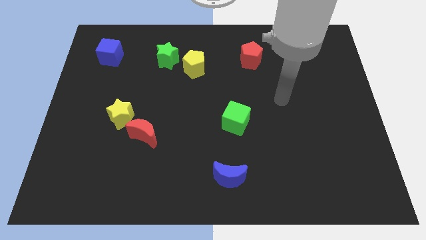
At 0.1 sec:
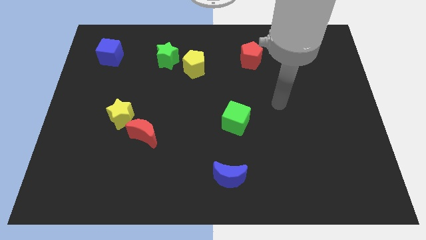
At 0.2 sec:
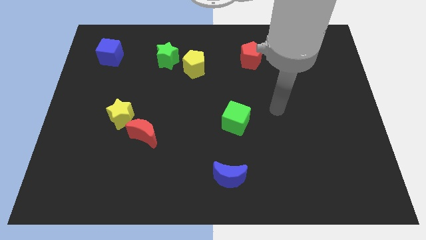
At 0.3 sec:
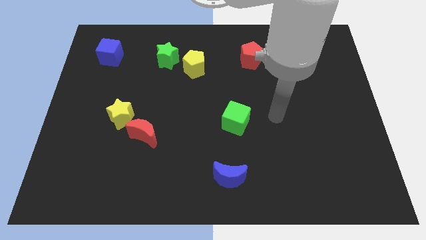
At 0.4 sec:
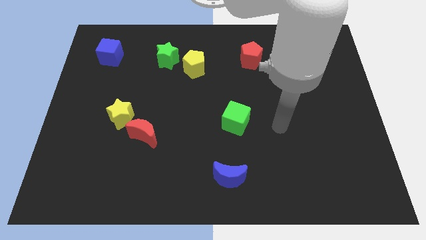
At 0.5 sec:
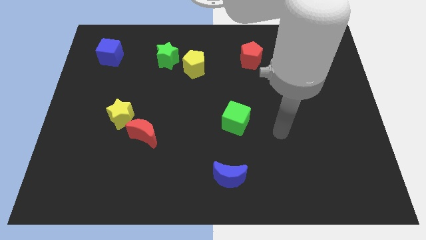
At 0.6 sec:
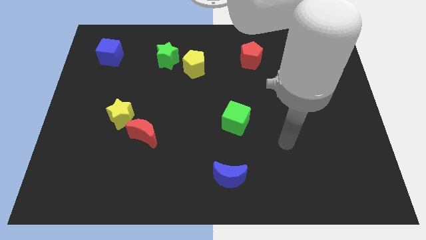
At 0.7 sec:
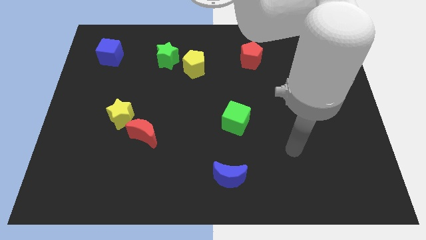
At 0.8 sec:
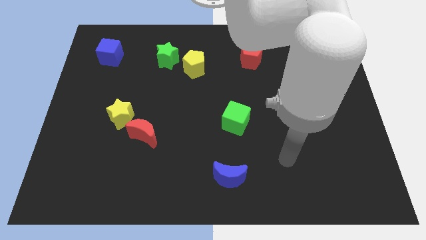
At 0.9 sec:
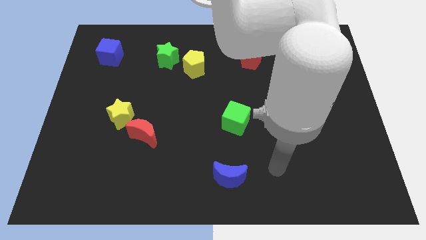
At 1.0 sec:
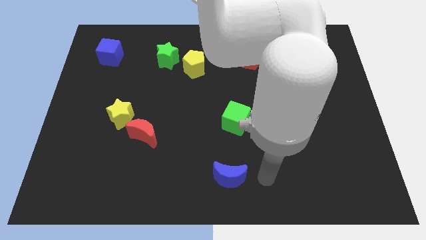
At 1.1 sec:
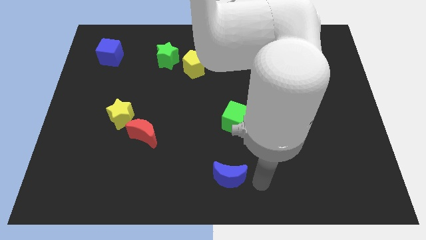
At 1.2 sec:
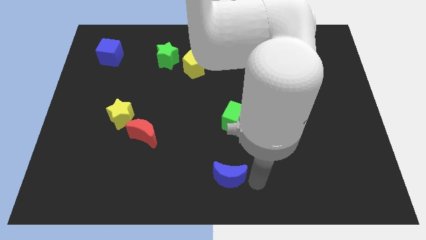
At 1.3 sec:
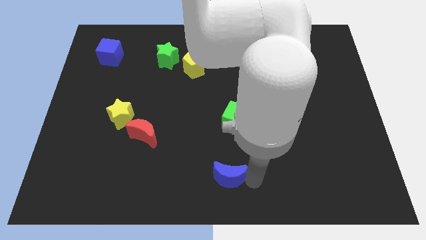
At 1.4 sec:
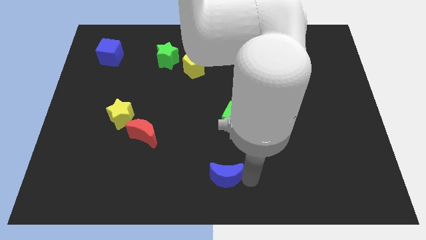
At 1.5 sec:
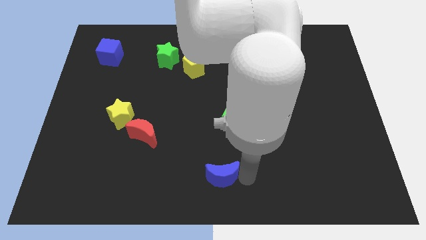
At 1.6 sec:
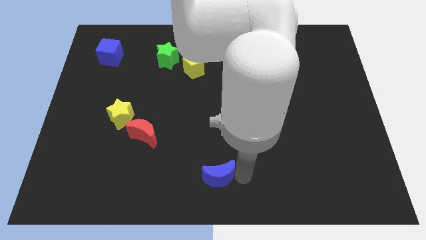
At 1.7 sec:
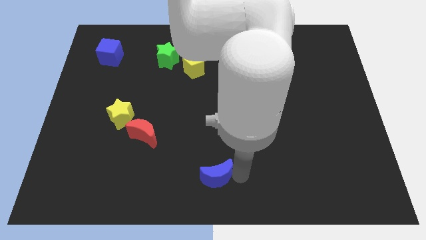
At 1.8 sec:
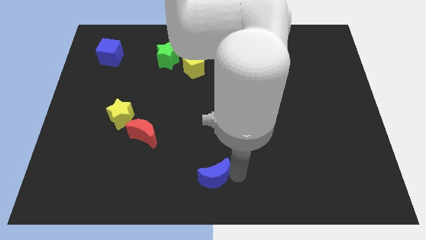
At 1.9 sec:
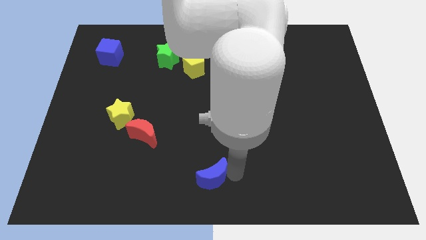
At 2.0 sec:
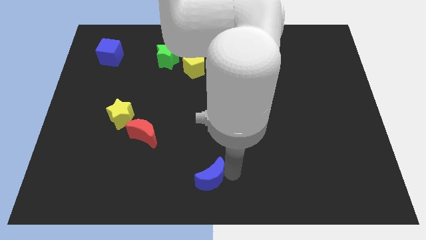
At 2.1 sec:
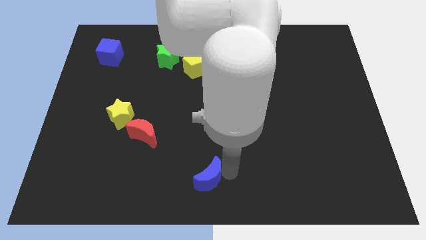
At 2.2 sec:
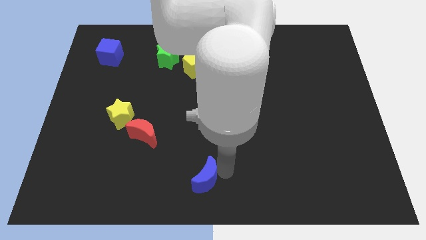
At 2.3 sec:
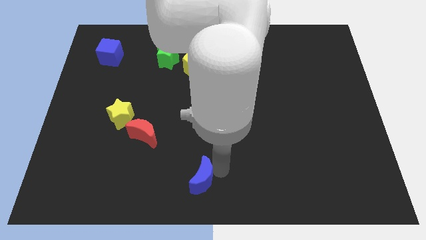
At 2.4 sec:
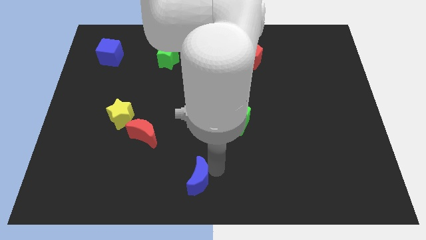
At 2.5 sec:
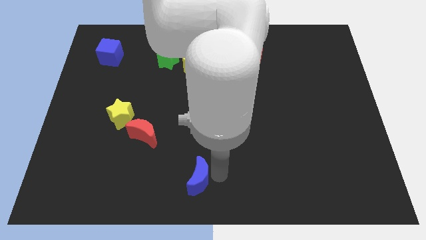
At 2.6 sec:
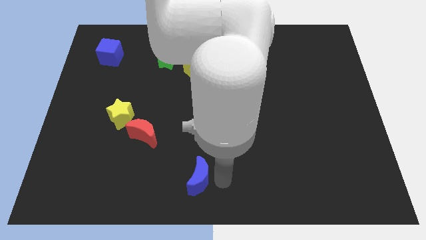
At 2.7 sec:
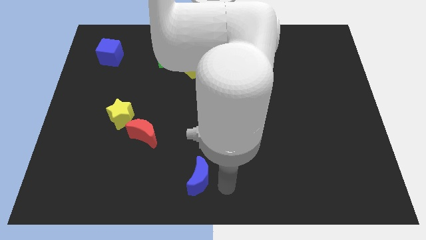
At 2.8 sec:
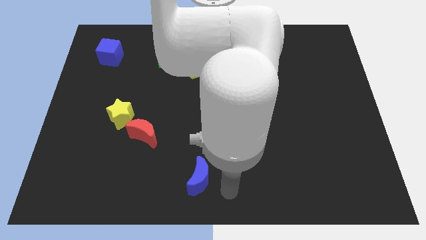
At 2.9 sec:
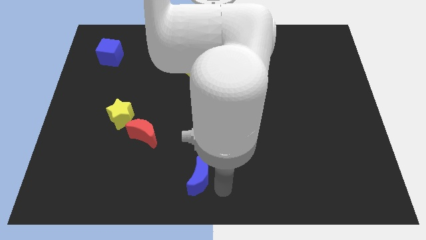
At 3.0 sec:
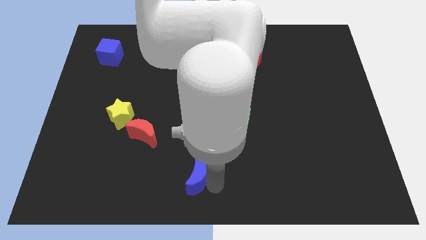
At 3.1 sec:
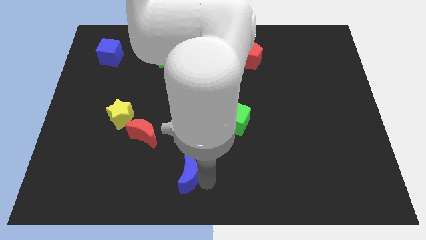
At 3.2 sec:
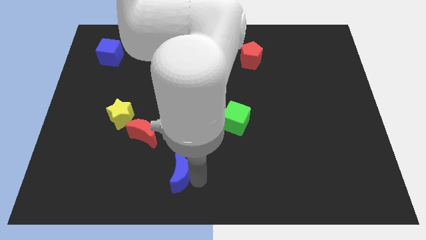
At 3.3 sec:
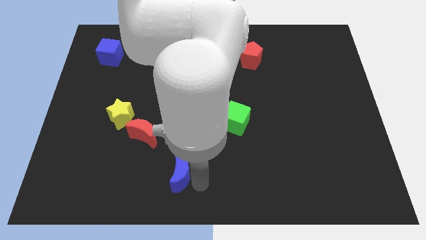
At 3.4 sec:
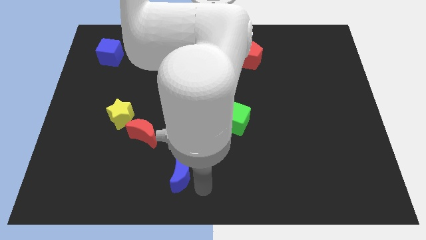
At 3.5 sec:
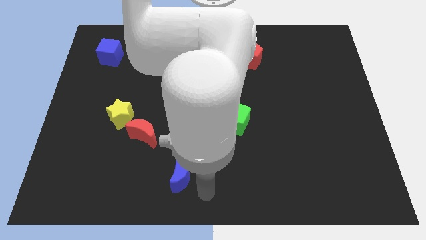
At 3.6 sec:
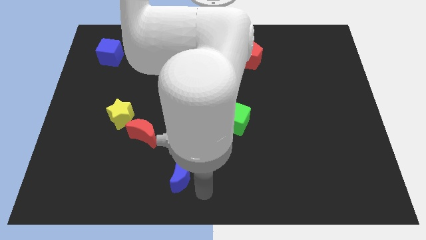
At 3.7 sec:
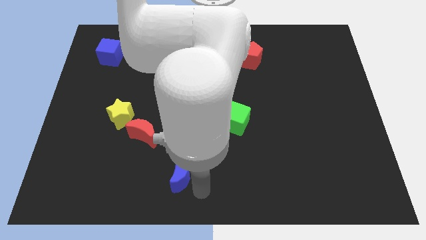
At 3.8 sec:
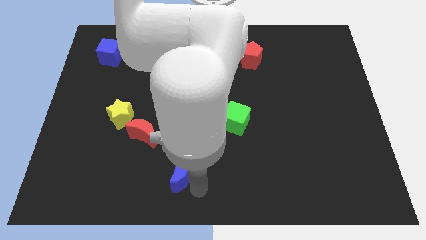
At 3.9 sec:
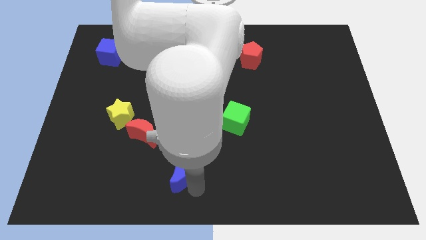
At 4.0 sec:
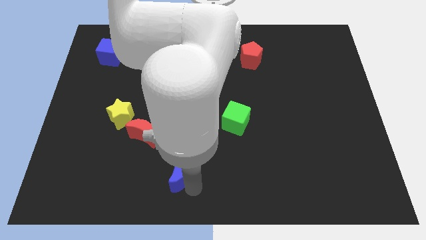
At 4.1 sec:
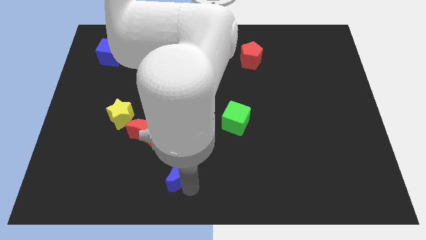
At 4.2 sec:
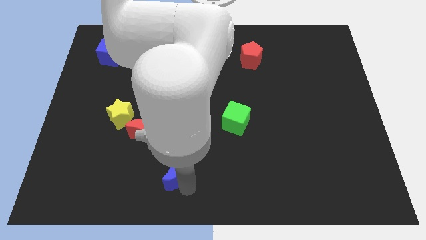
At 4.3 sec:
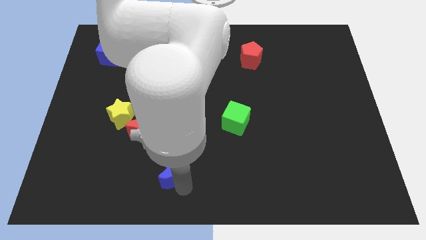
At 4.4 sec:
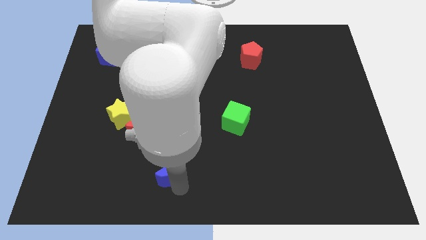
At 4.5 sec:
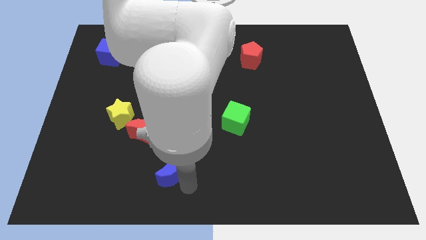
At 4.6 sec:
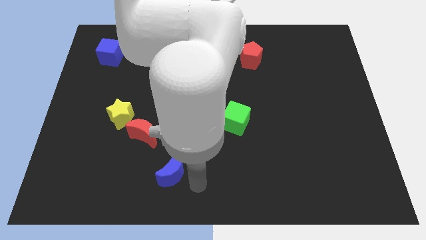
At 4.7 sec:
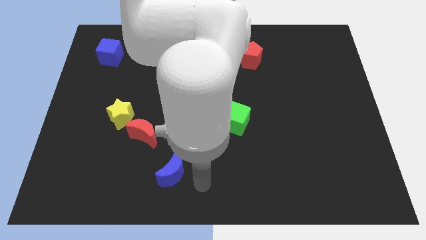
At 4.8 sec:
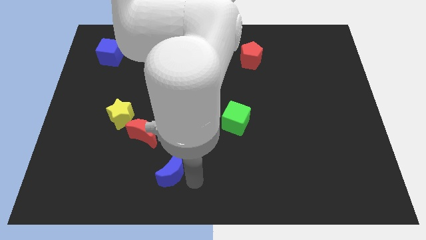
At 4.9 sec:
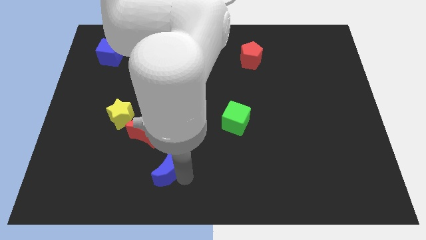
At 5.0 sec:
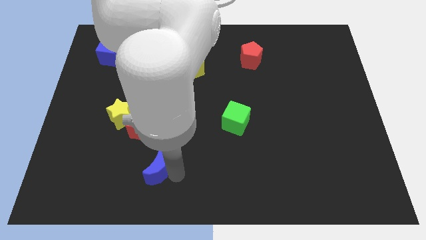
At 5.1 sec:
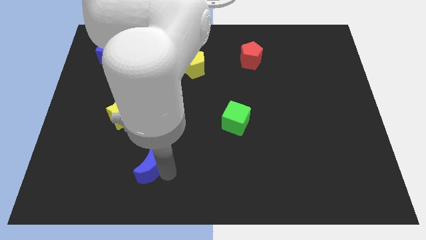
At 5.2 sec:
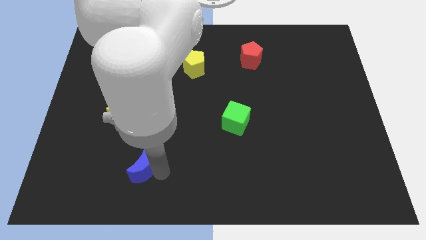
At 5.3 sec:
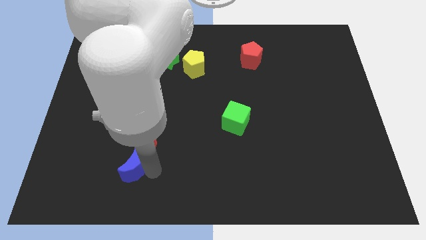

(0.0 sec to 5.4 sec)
push the blue moon to the bottom of the yellow star
